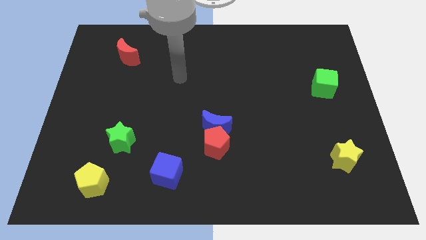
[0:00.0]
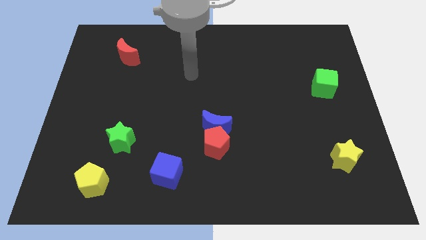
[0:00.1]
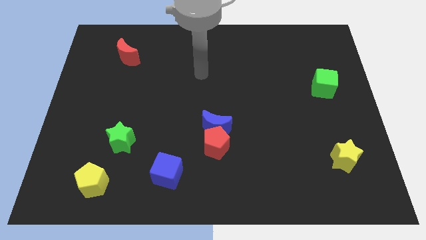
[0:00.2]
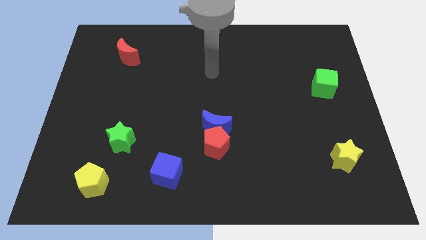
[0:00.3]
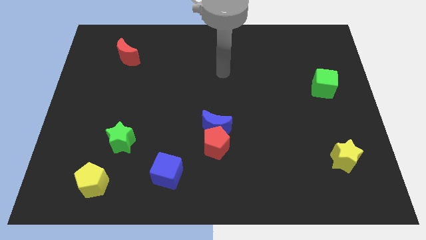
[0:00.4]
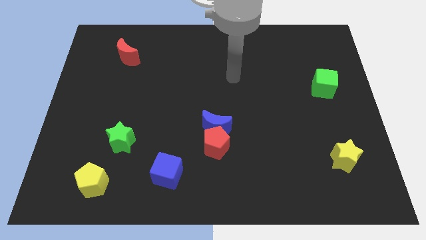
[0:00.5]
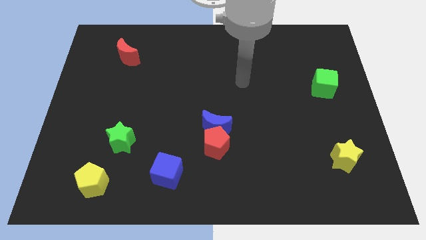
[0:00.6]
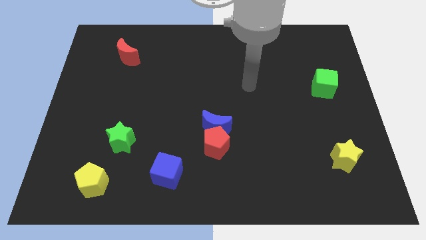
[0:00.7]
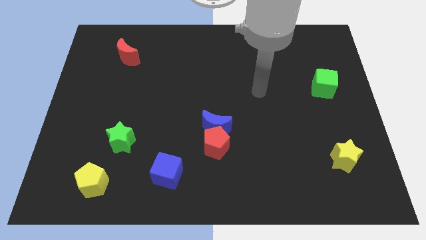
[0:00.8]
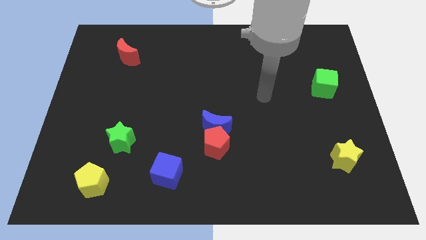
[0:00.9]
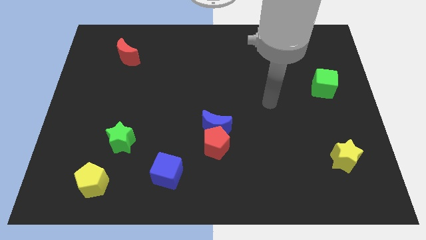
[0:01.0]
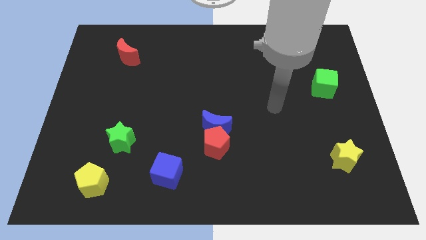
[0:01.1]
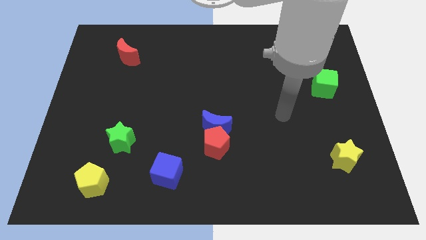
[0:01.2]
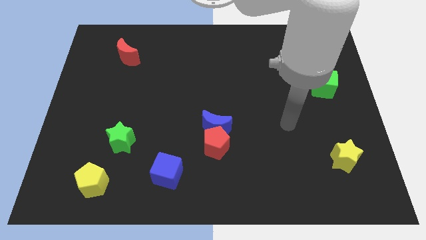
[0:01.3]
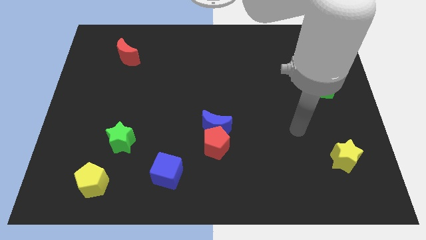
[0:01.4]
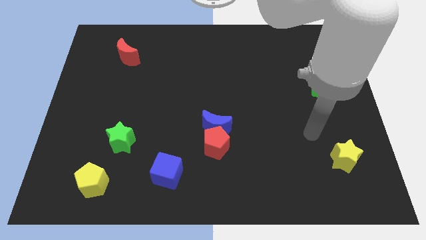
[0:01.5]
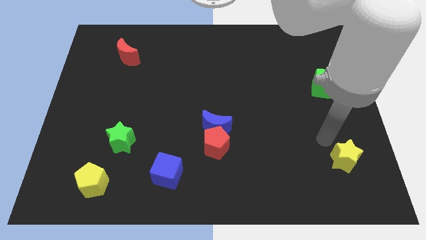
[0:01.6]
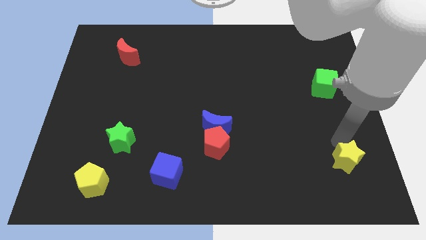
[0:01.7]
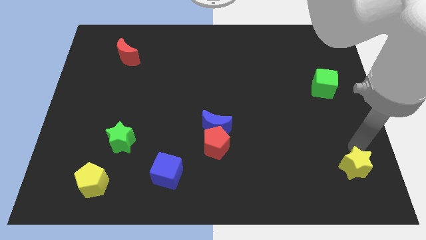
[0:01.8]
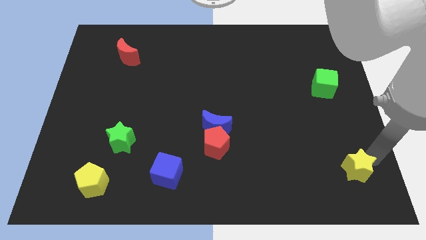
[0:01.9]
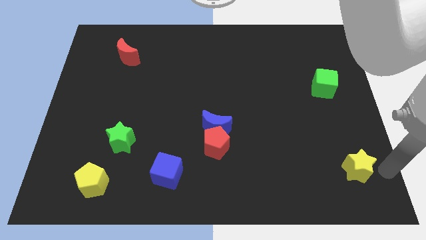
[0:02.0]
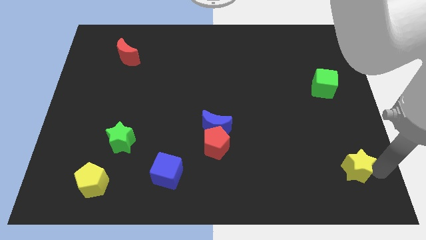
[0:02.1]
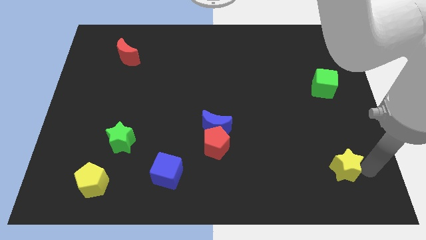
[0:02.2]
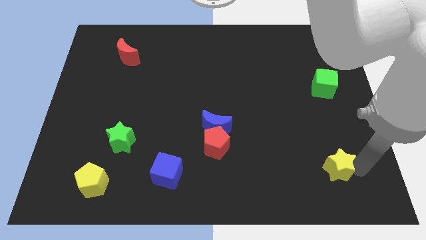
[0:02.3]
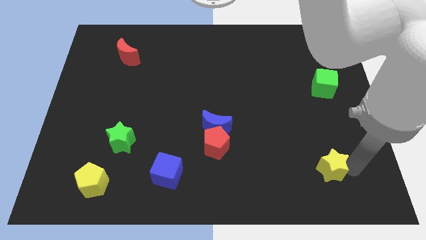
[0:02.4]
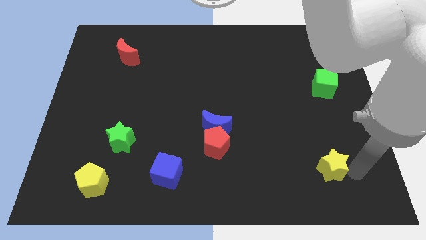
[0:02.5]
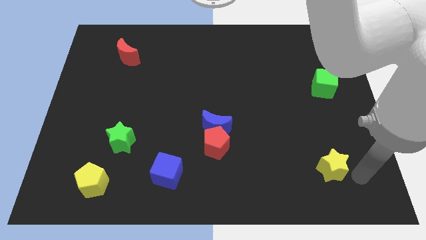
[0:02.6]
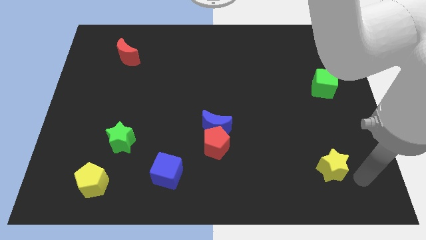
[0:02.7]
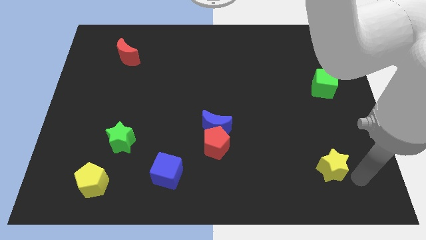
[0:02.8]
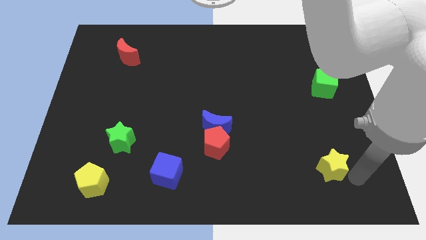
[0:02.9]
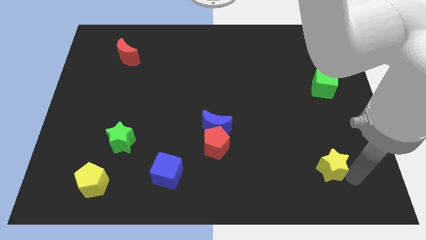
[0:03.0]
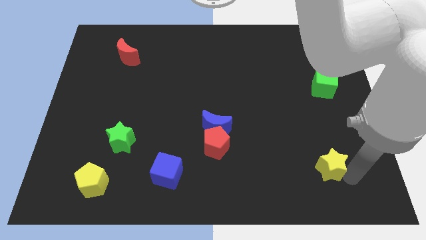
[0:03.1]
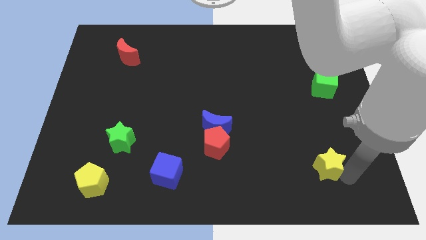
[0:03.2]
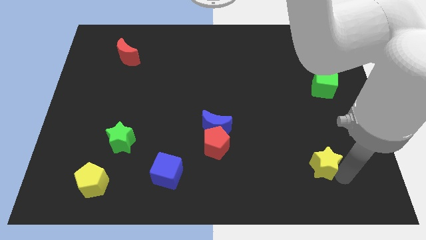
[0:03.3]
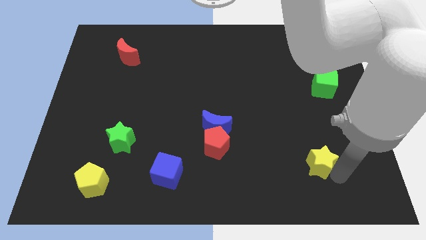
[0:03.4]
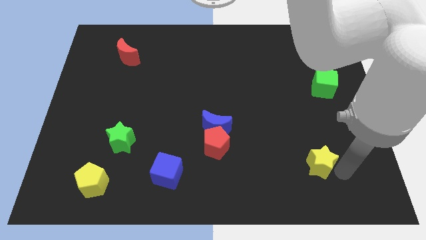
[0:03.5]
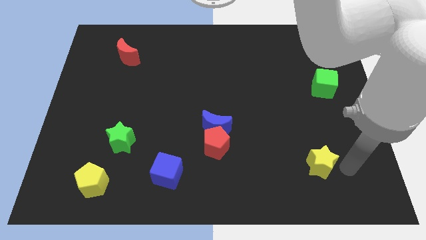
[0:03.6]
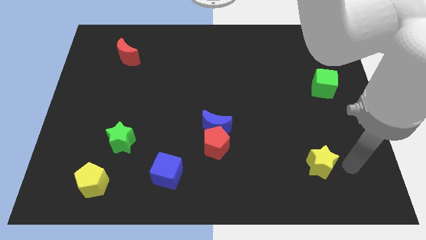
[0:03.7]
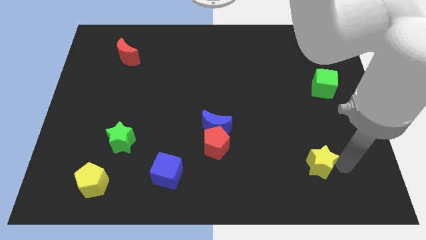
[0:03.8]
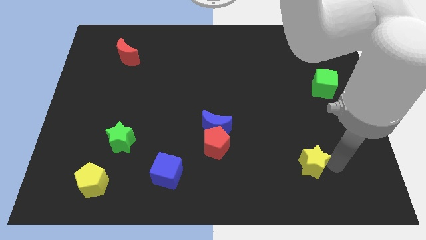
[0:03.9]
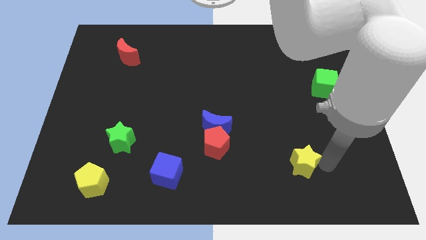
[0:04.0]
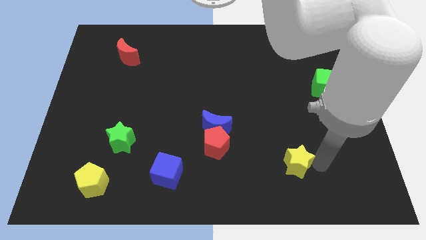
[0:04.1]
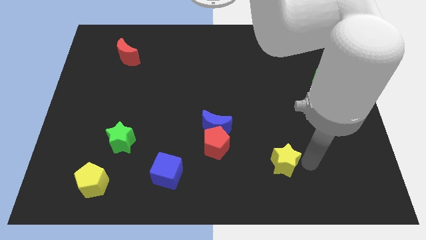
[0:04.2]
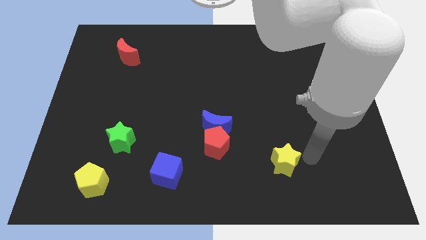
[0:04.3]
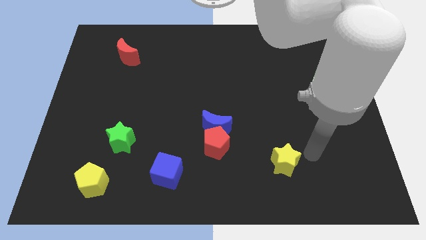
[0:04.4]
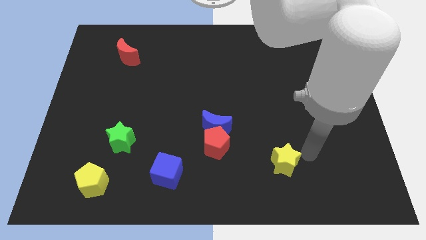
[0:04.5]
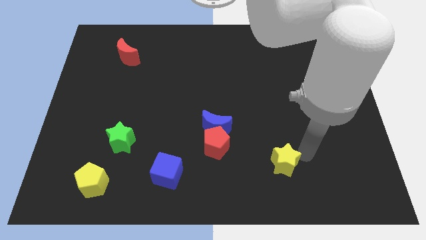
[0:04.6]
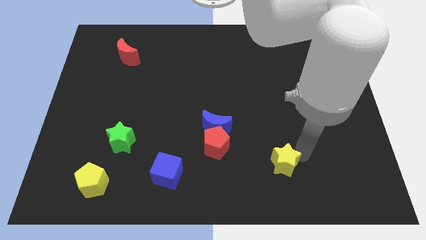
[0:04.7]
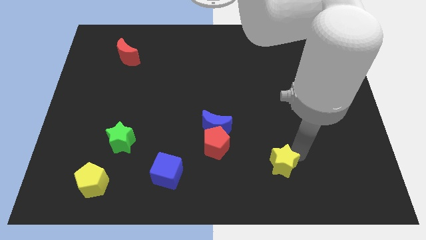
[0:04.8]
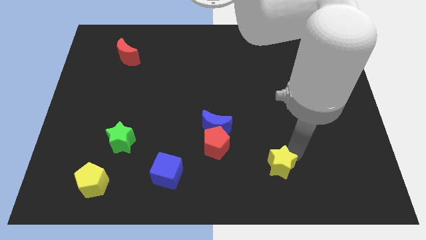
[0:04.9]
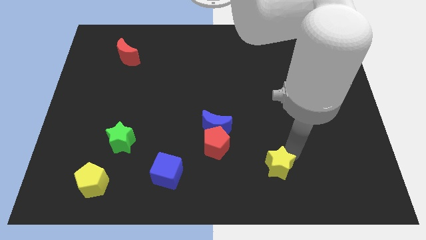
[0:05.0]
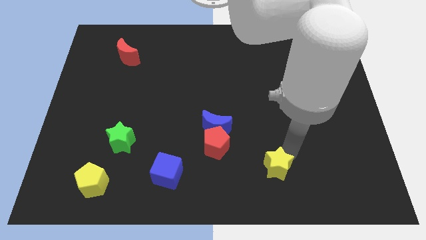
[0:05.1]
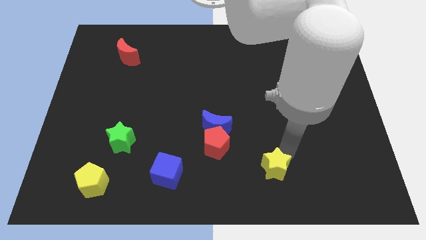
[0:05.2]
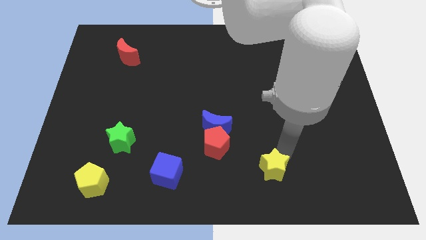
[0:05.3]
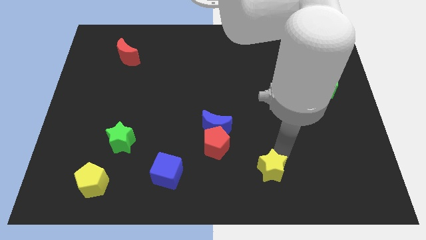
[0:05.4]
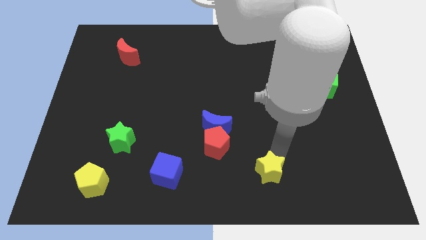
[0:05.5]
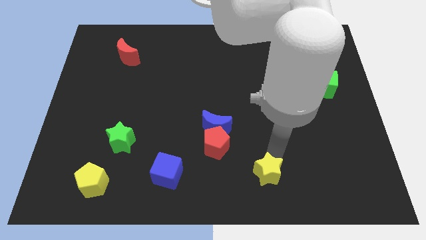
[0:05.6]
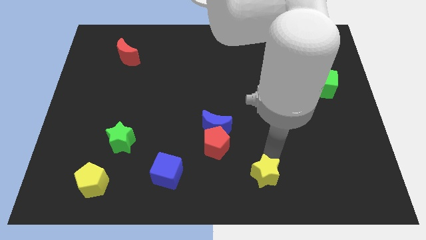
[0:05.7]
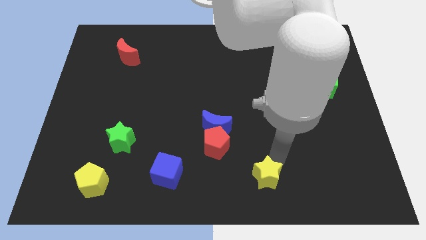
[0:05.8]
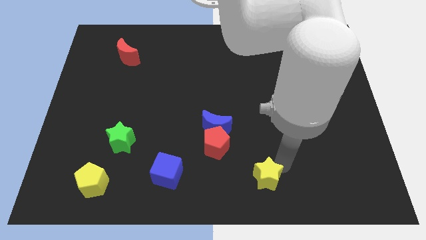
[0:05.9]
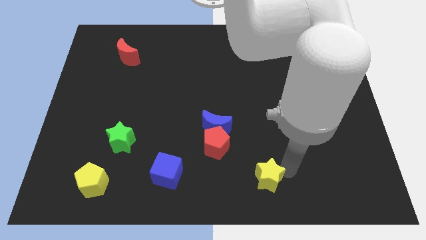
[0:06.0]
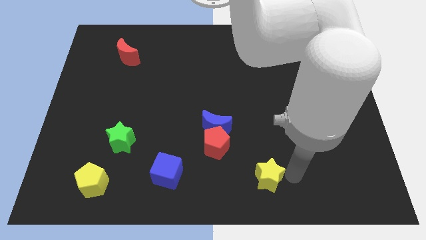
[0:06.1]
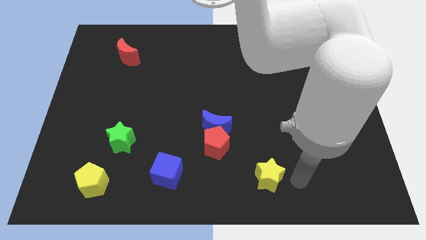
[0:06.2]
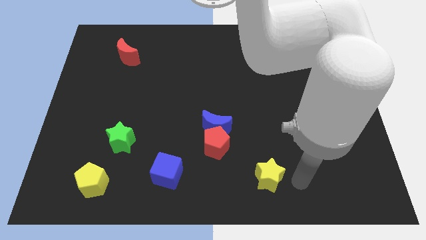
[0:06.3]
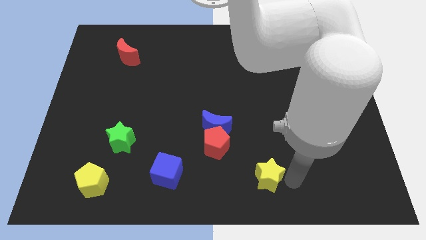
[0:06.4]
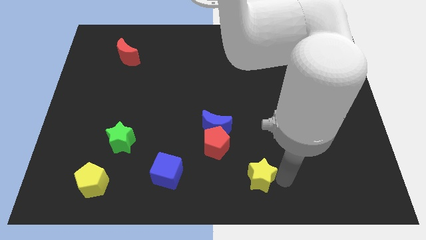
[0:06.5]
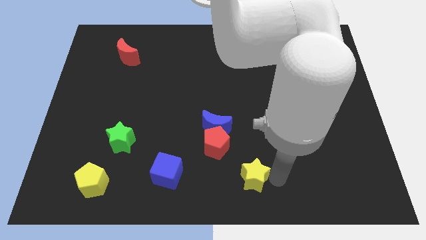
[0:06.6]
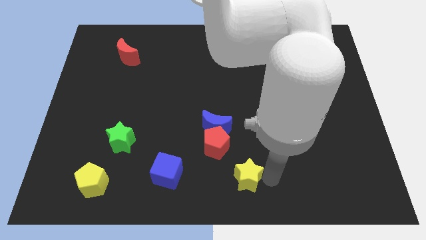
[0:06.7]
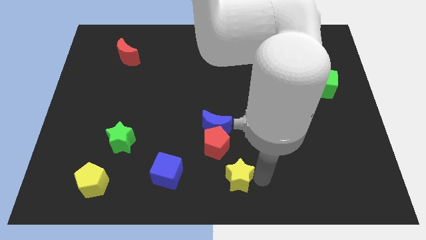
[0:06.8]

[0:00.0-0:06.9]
slide the yellow star below the blue moon
